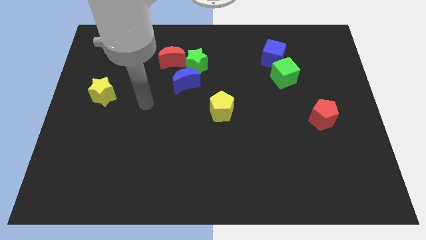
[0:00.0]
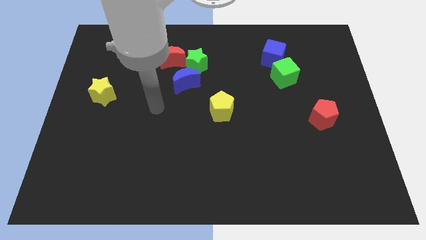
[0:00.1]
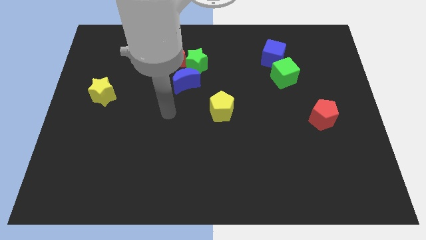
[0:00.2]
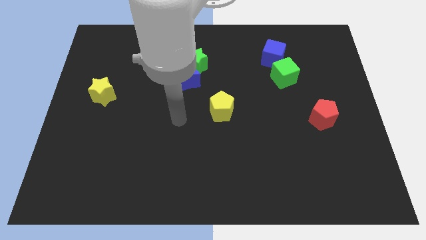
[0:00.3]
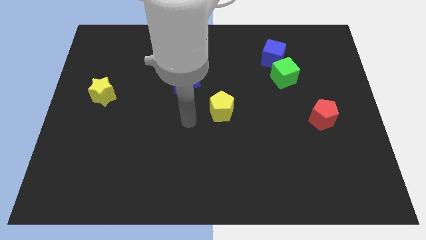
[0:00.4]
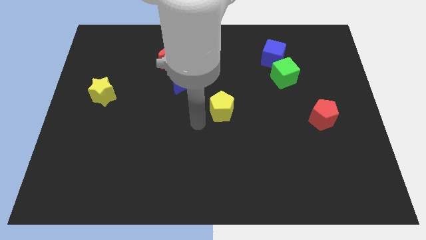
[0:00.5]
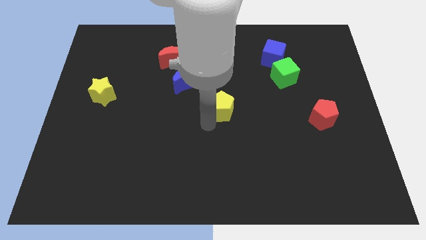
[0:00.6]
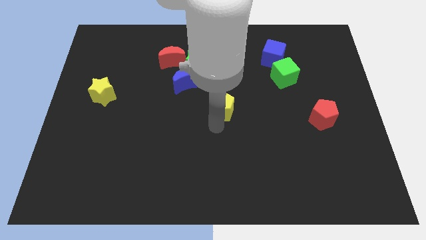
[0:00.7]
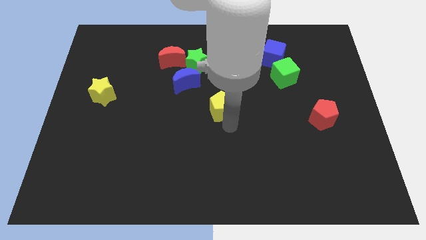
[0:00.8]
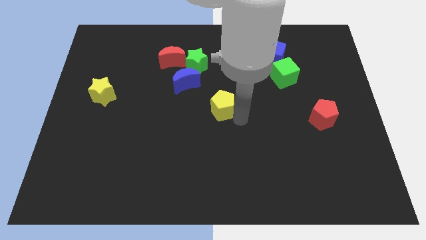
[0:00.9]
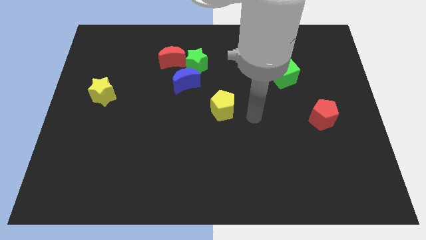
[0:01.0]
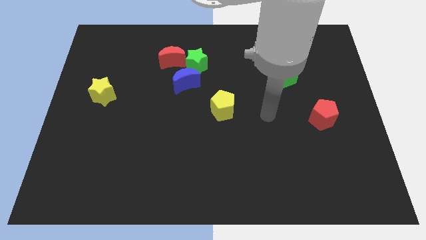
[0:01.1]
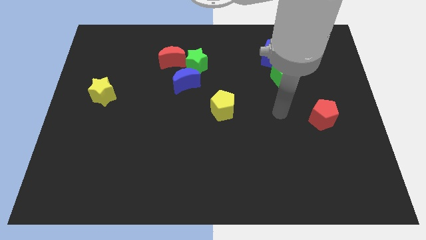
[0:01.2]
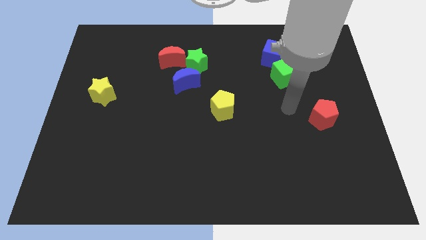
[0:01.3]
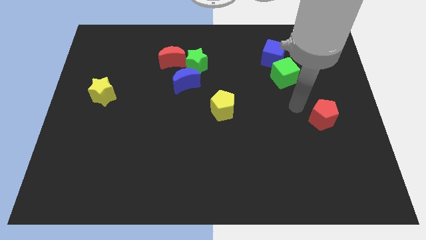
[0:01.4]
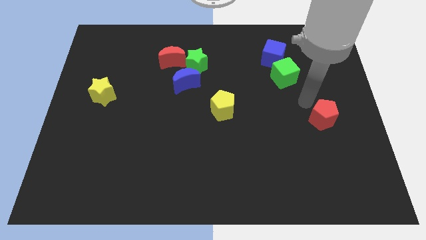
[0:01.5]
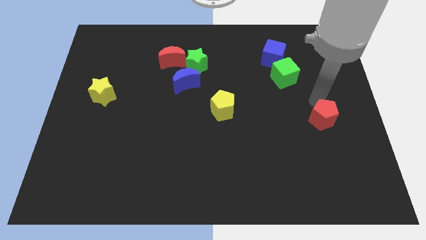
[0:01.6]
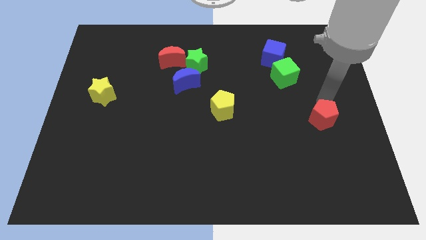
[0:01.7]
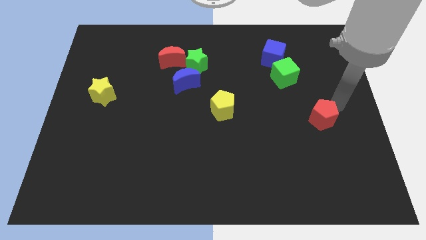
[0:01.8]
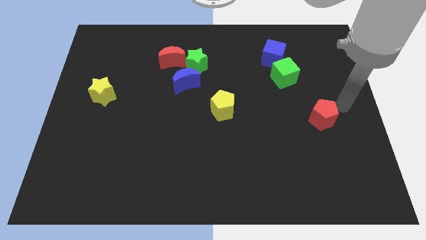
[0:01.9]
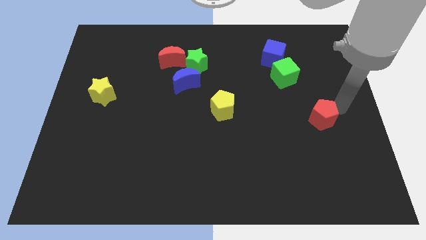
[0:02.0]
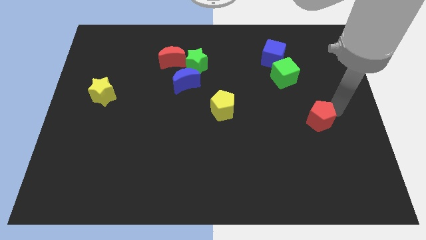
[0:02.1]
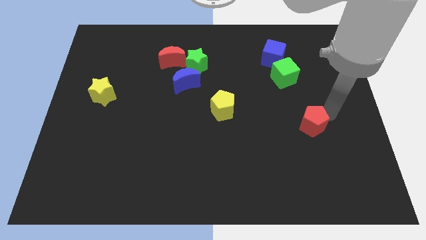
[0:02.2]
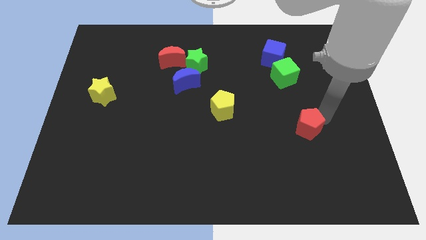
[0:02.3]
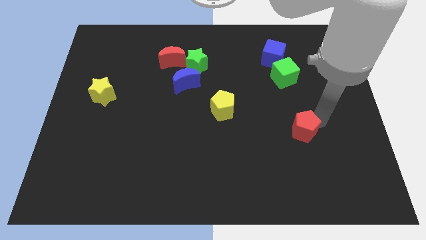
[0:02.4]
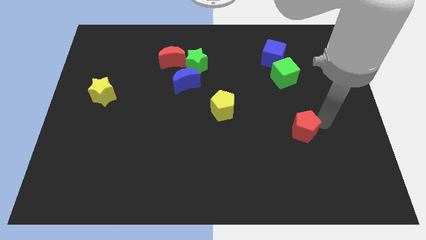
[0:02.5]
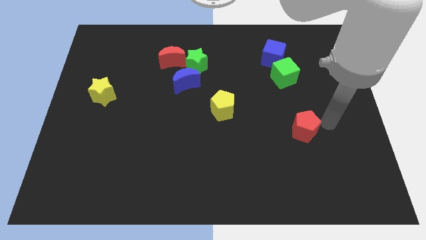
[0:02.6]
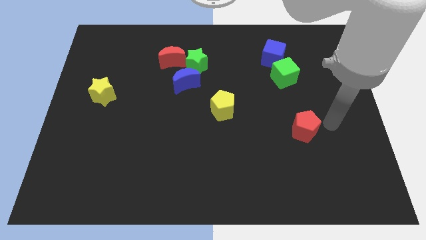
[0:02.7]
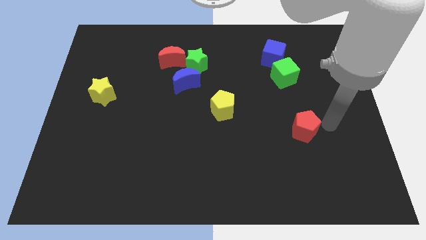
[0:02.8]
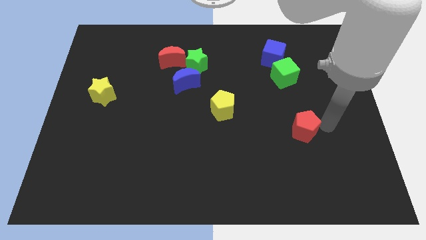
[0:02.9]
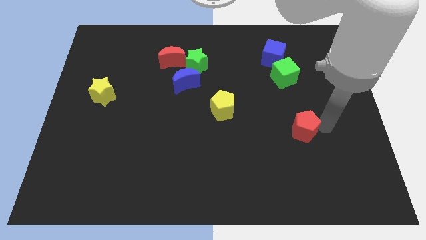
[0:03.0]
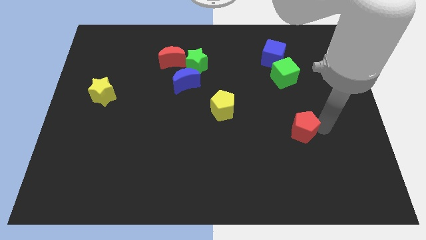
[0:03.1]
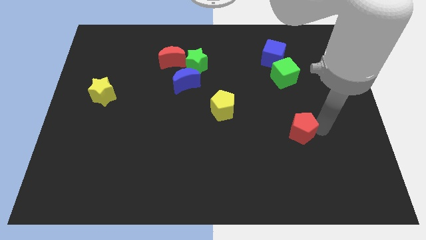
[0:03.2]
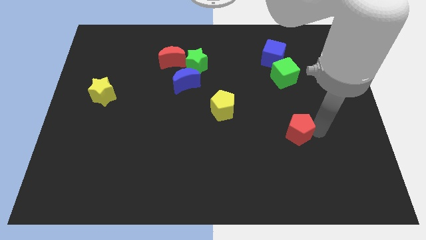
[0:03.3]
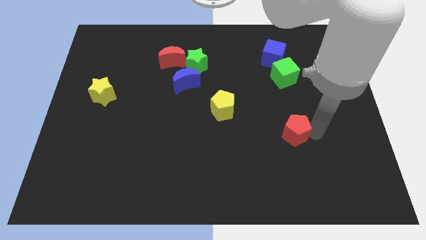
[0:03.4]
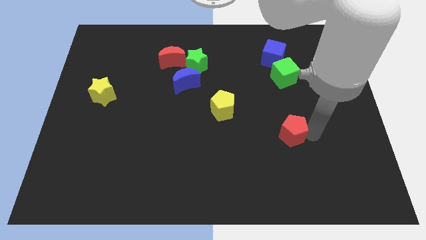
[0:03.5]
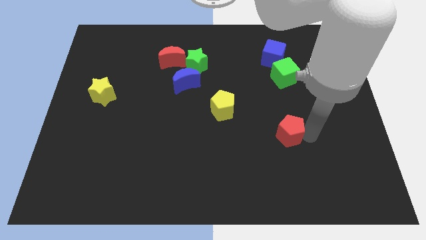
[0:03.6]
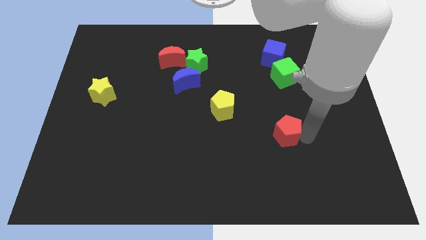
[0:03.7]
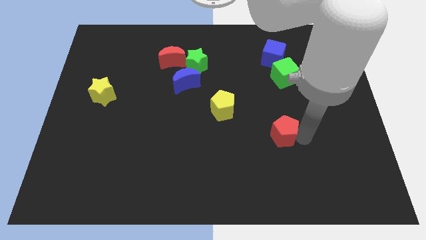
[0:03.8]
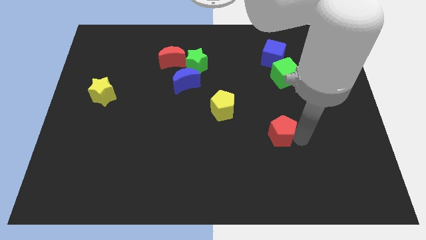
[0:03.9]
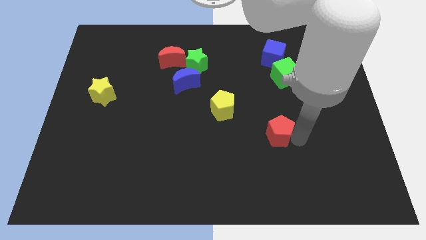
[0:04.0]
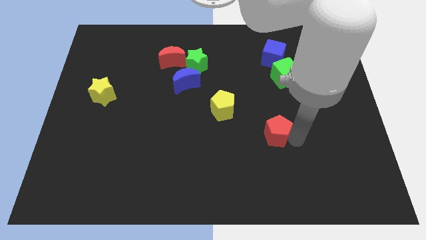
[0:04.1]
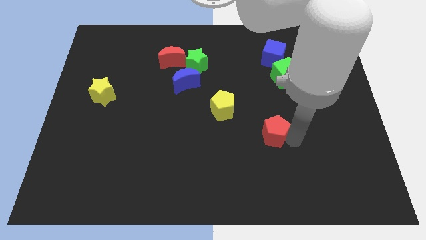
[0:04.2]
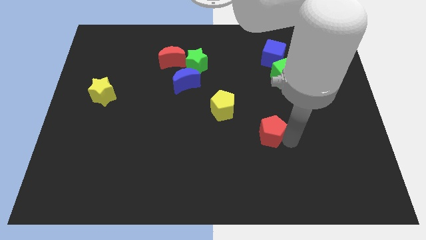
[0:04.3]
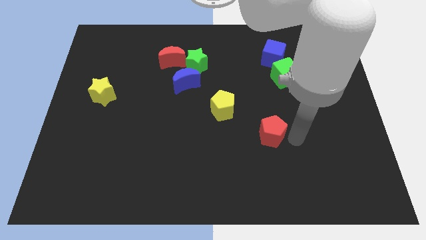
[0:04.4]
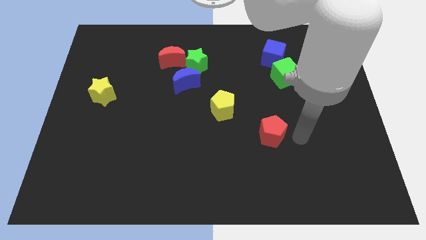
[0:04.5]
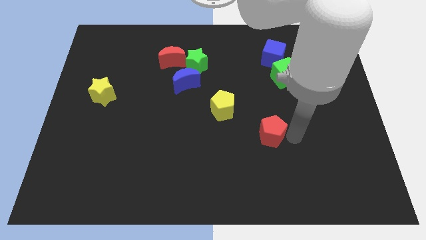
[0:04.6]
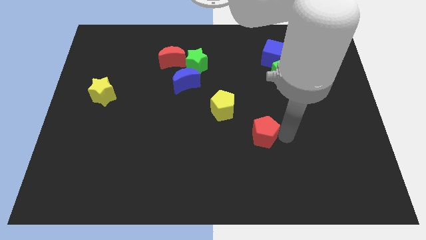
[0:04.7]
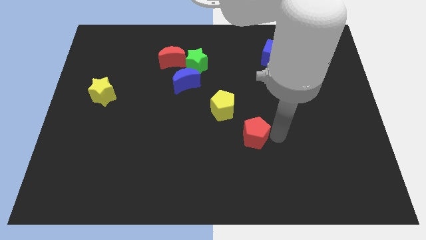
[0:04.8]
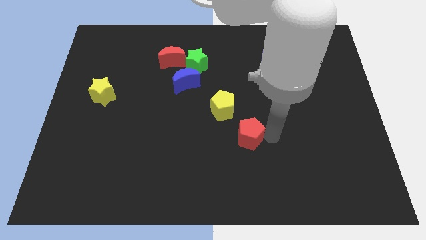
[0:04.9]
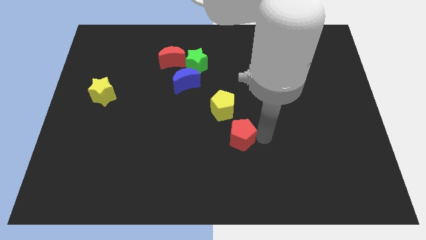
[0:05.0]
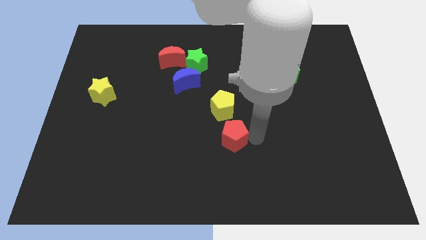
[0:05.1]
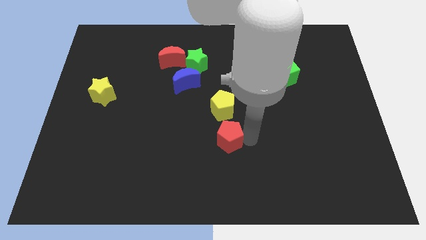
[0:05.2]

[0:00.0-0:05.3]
push the red pentagon to the left

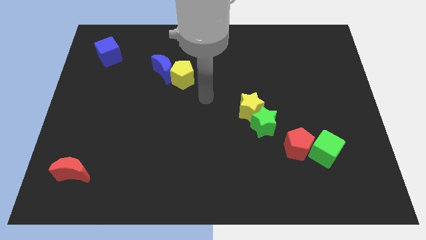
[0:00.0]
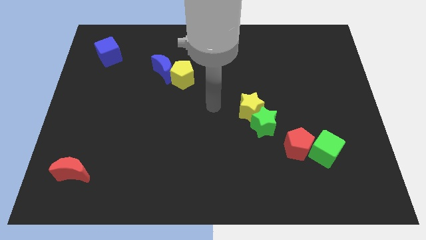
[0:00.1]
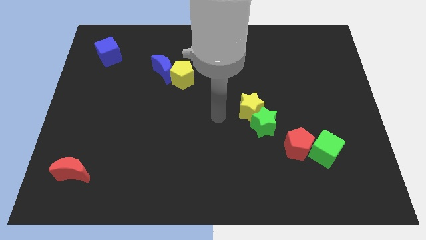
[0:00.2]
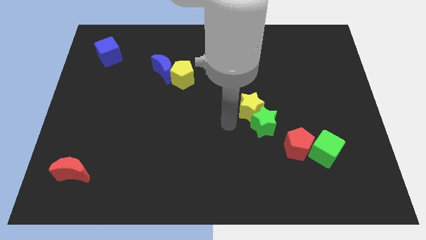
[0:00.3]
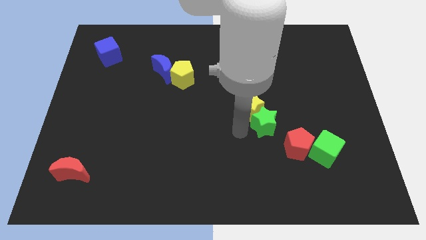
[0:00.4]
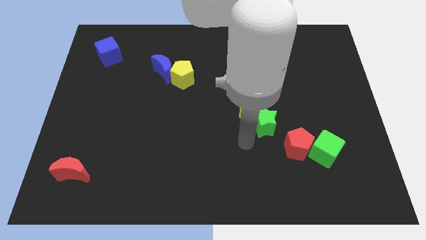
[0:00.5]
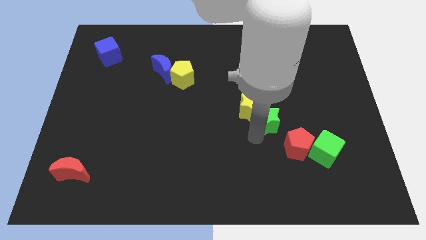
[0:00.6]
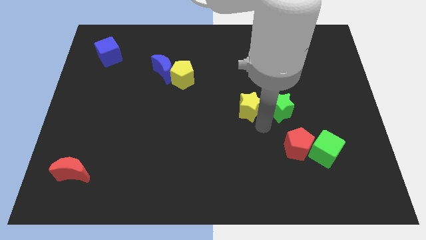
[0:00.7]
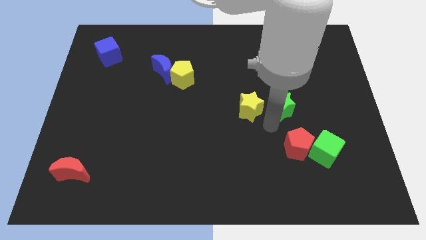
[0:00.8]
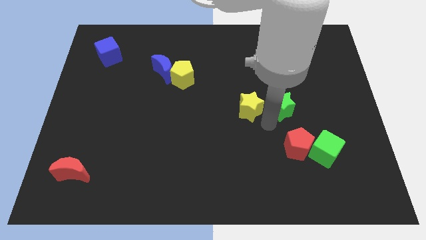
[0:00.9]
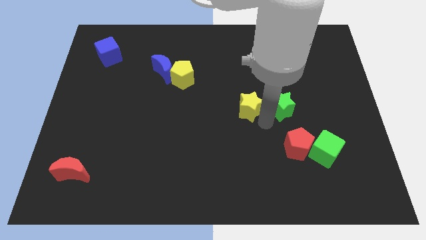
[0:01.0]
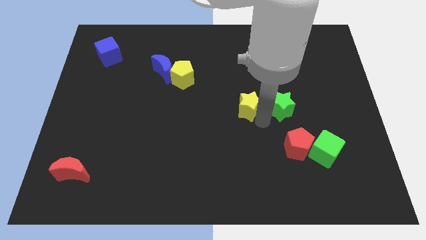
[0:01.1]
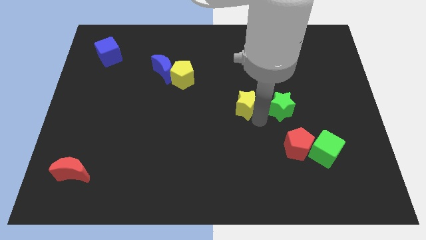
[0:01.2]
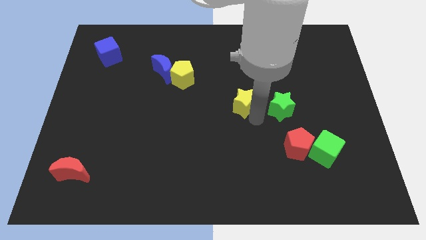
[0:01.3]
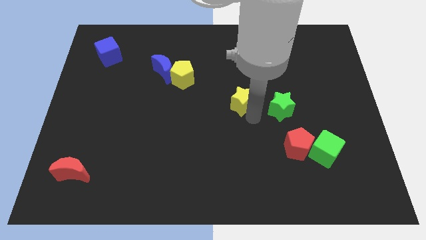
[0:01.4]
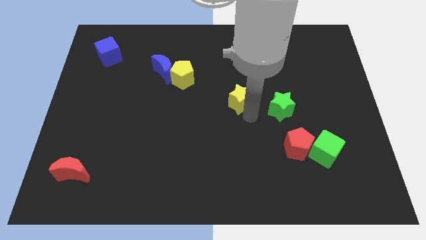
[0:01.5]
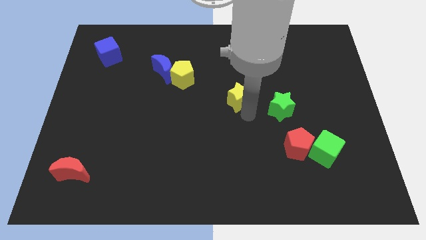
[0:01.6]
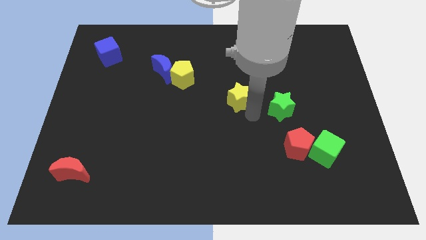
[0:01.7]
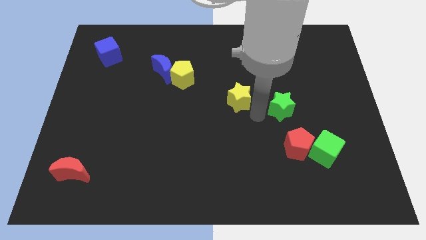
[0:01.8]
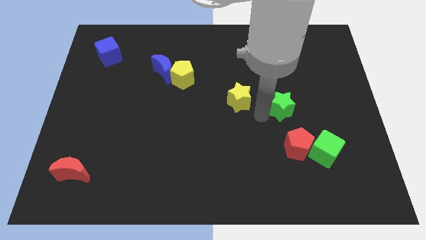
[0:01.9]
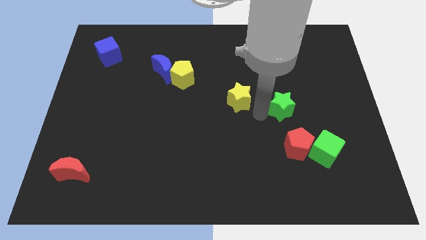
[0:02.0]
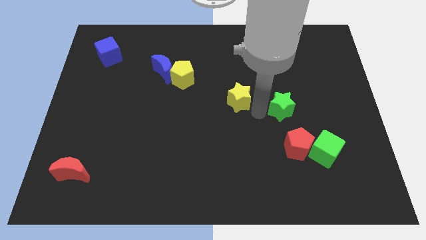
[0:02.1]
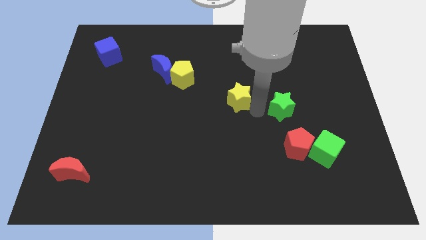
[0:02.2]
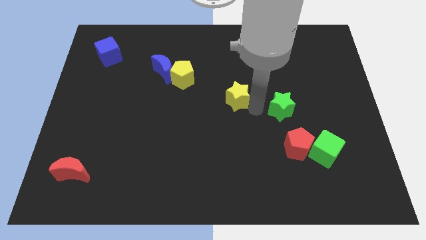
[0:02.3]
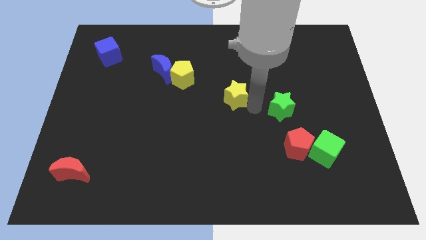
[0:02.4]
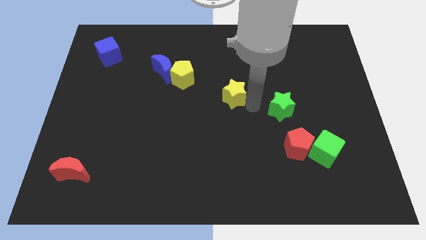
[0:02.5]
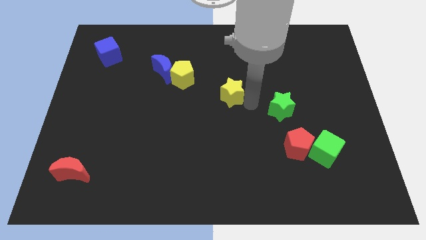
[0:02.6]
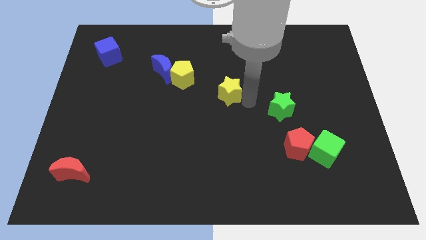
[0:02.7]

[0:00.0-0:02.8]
move the yellow star up and to the left slightly

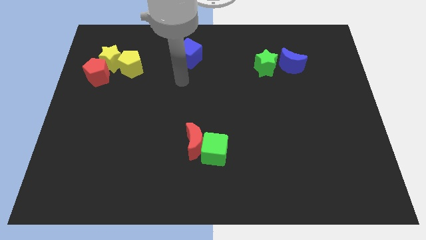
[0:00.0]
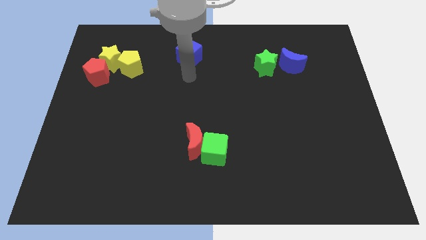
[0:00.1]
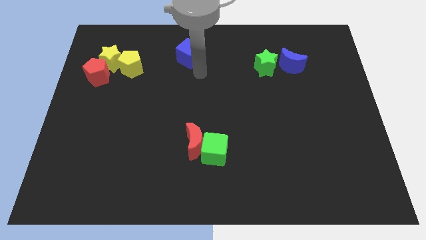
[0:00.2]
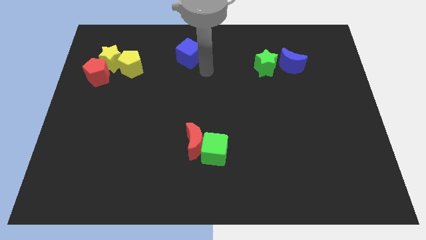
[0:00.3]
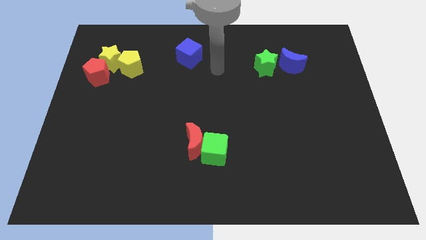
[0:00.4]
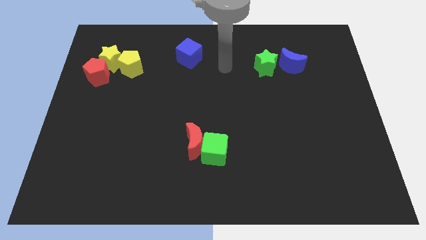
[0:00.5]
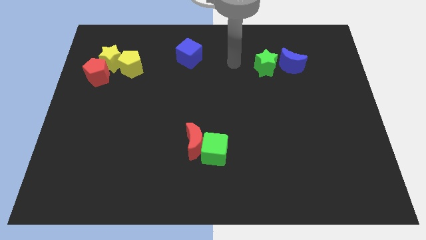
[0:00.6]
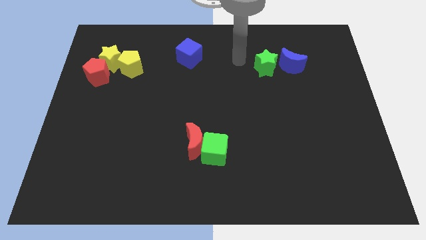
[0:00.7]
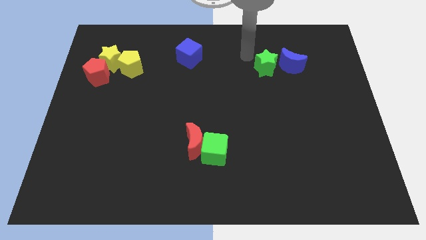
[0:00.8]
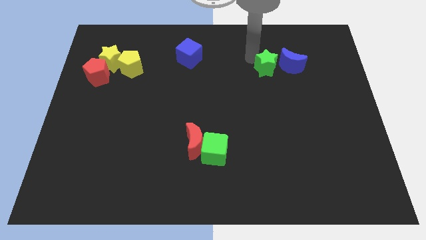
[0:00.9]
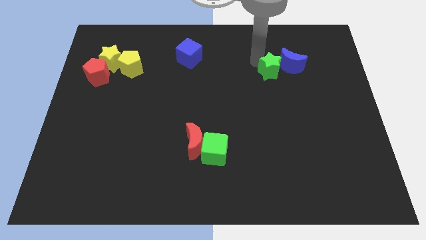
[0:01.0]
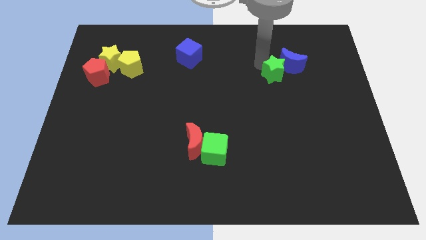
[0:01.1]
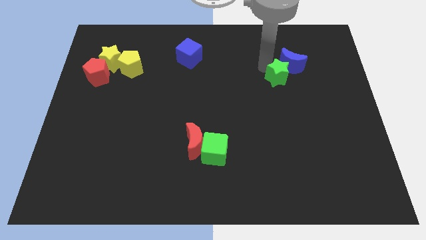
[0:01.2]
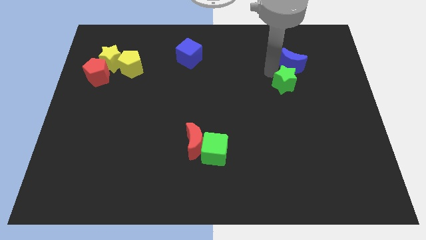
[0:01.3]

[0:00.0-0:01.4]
slightly slide the green star down and to the right
